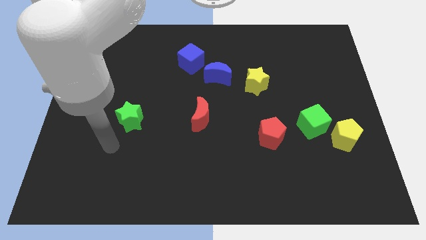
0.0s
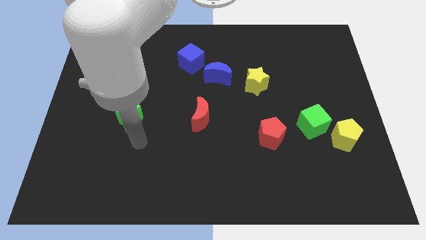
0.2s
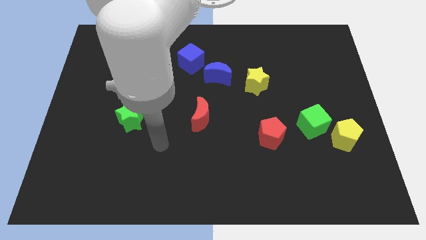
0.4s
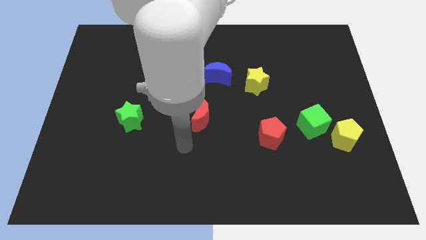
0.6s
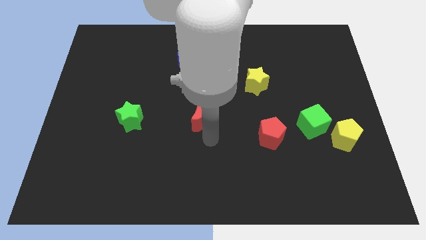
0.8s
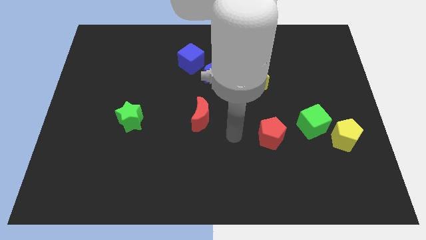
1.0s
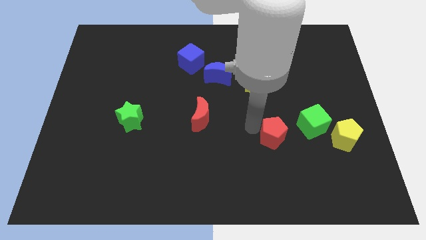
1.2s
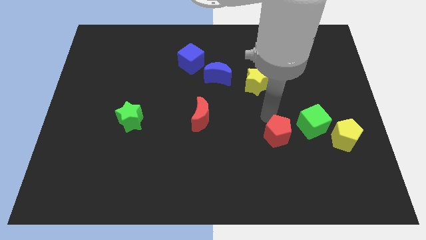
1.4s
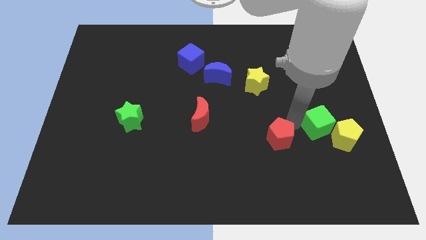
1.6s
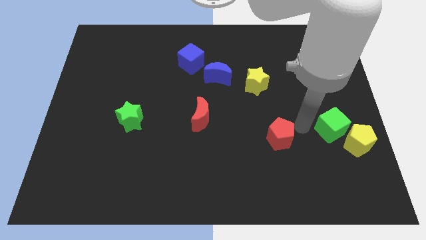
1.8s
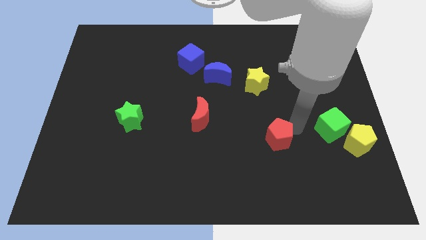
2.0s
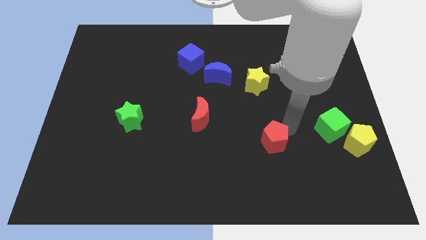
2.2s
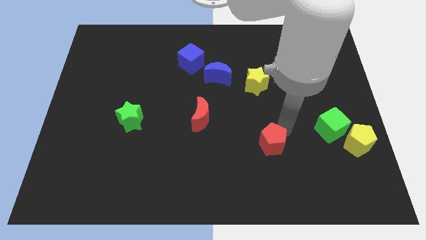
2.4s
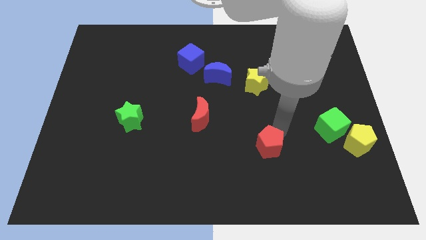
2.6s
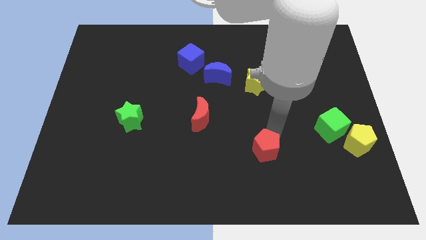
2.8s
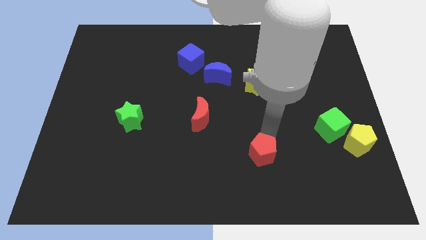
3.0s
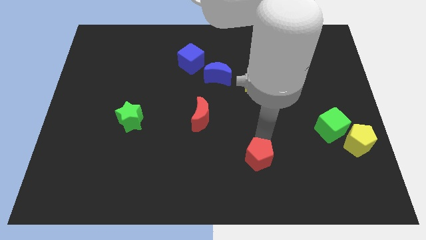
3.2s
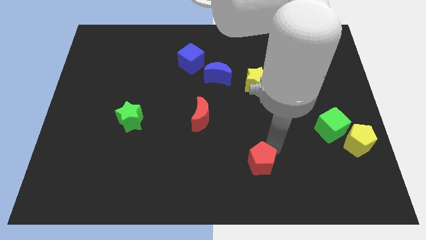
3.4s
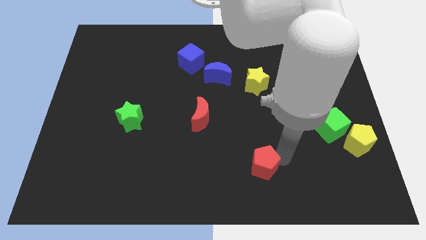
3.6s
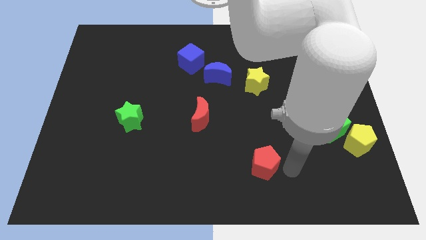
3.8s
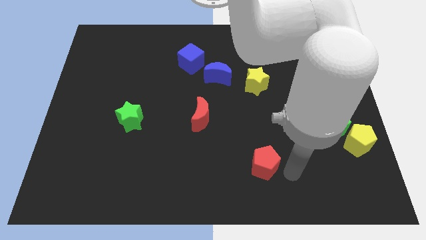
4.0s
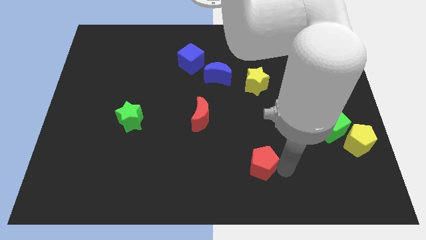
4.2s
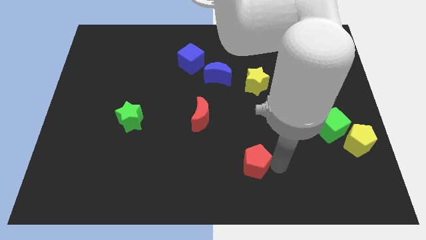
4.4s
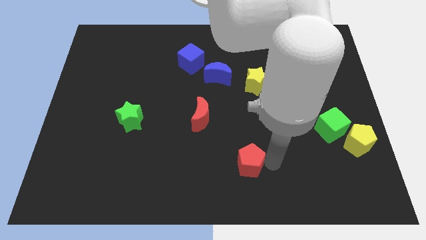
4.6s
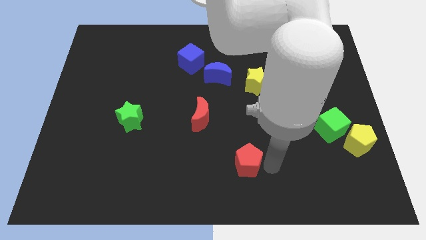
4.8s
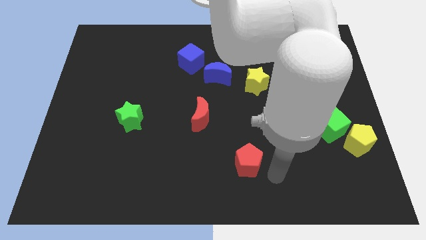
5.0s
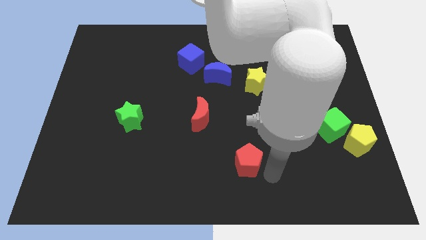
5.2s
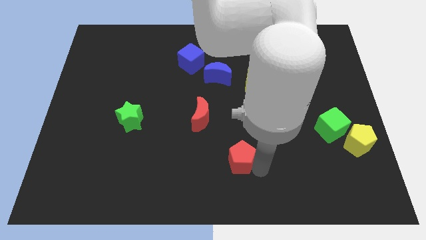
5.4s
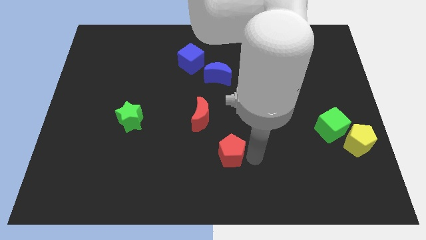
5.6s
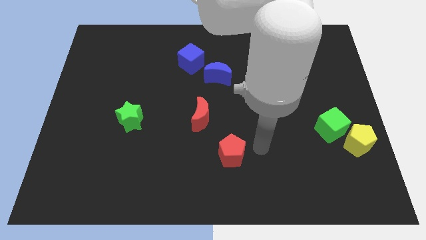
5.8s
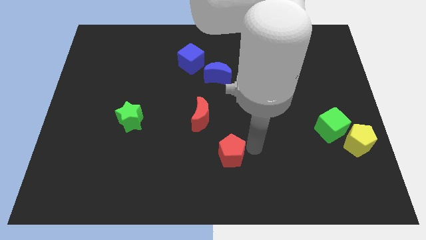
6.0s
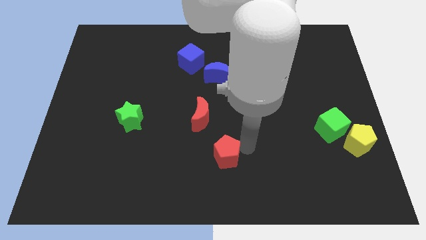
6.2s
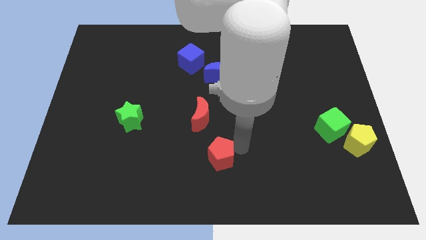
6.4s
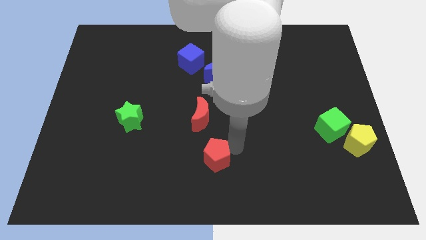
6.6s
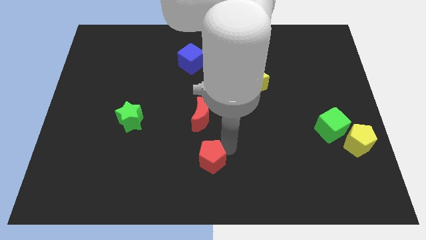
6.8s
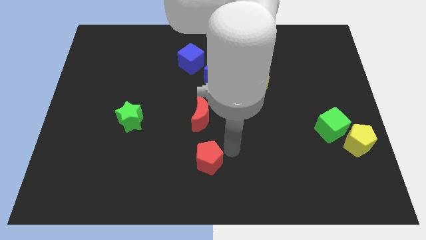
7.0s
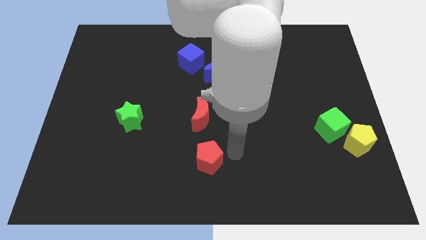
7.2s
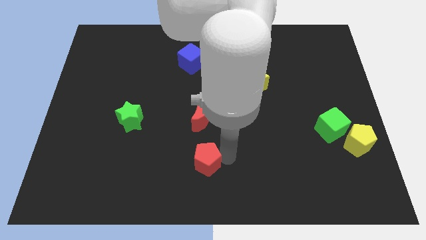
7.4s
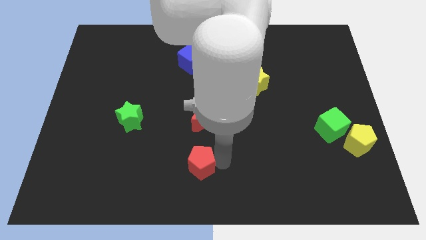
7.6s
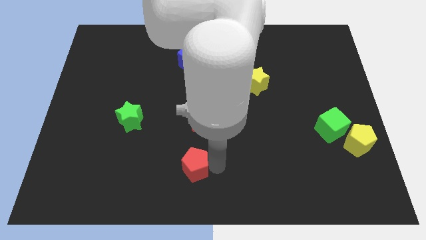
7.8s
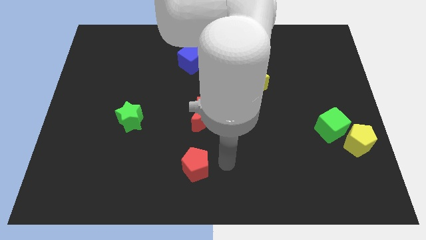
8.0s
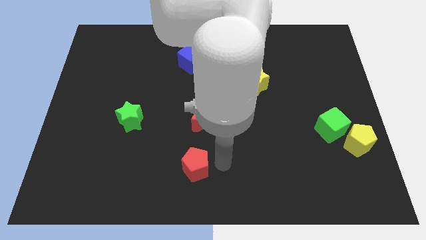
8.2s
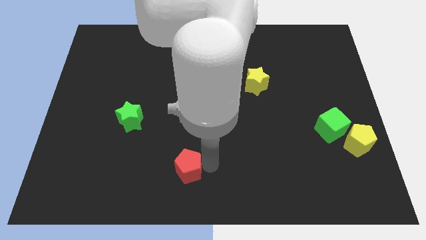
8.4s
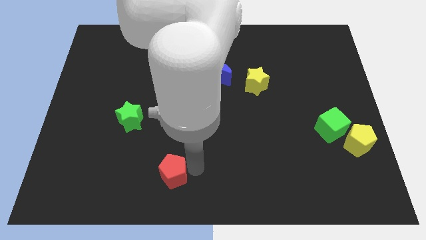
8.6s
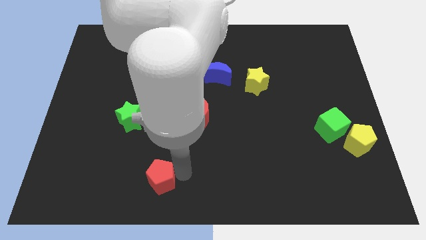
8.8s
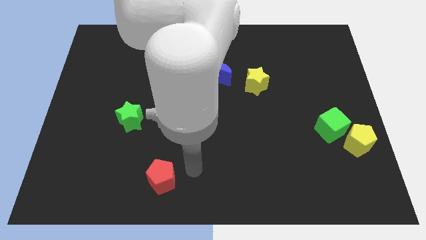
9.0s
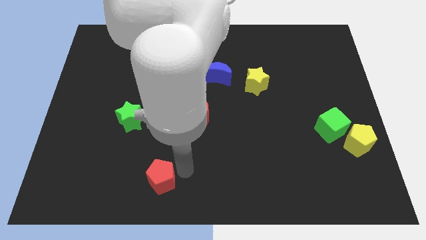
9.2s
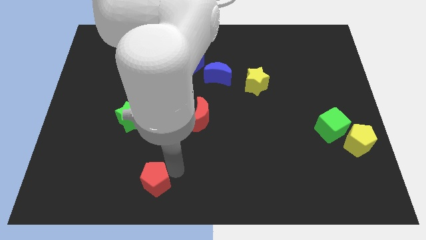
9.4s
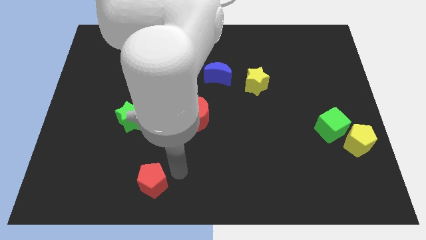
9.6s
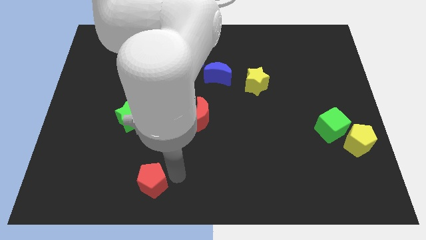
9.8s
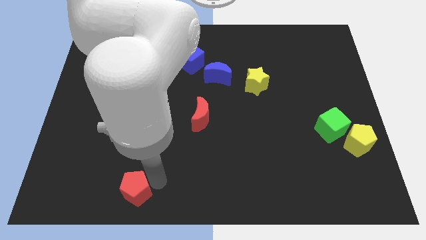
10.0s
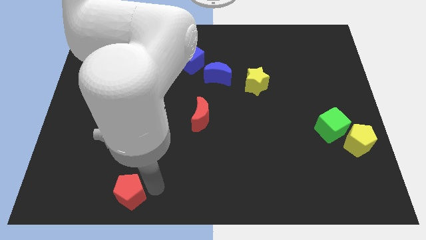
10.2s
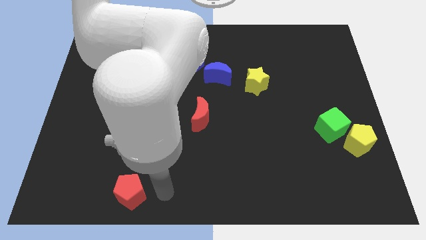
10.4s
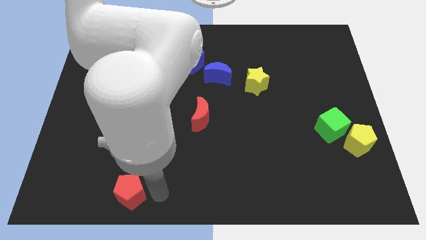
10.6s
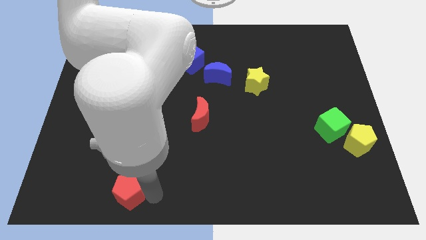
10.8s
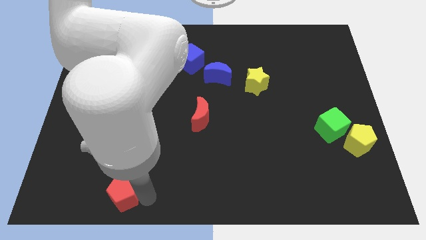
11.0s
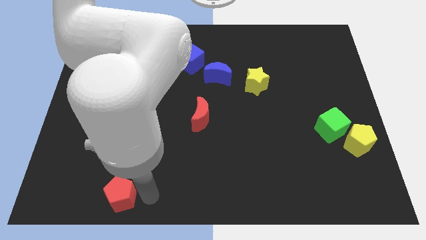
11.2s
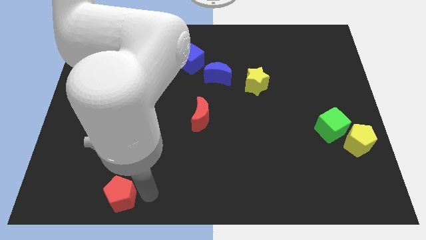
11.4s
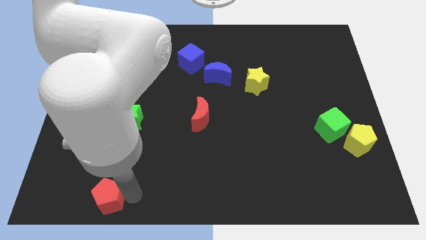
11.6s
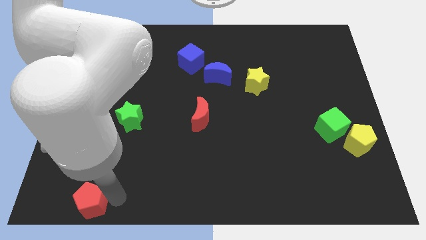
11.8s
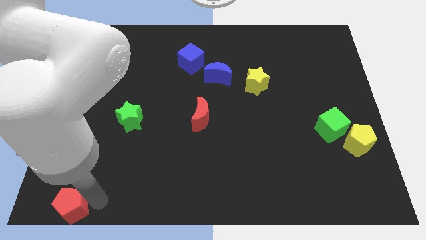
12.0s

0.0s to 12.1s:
slide the red pentagon to the bottom left

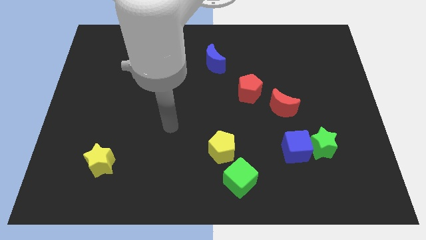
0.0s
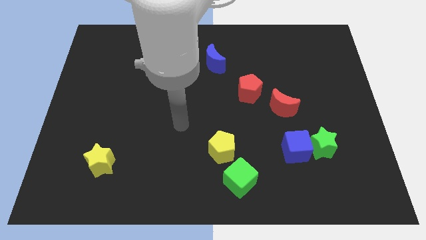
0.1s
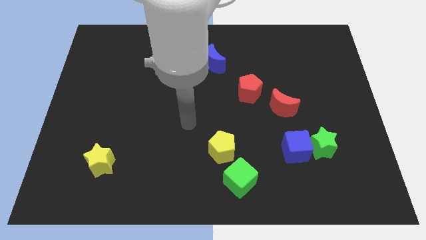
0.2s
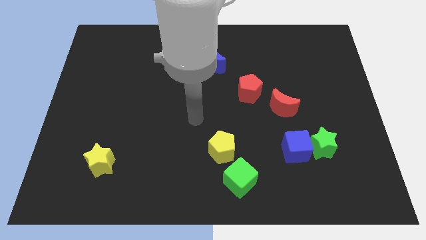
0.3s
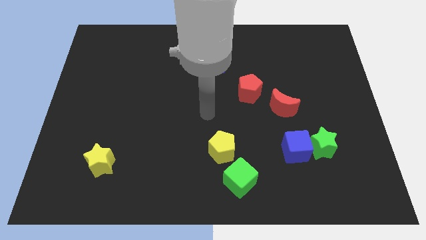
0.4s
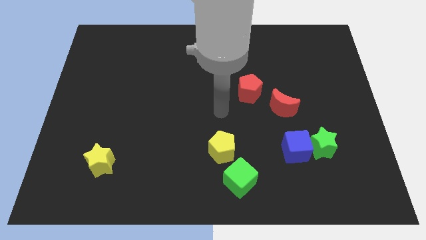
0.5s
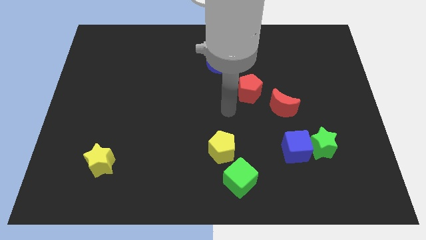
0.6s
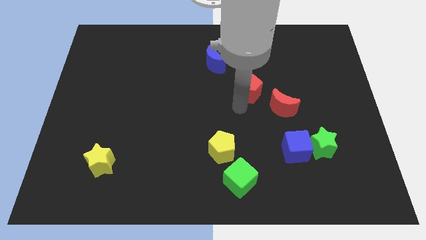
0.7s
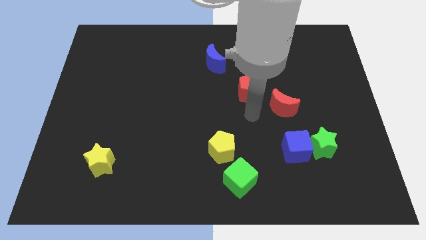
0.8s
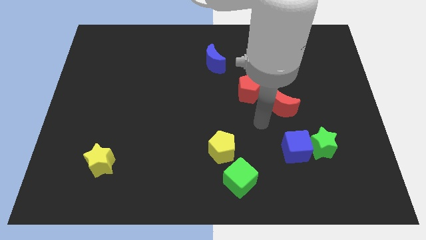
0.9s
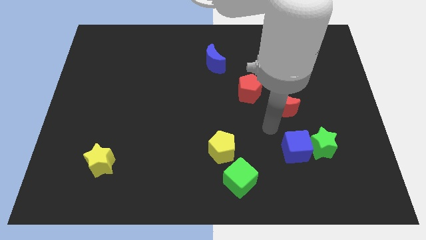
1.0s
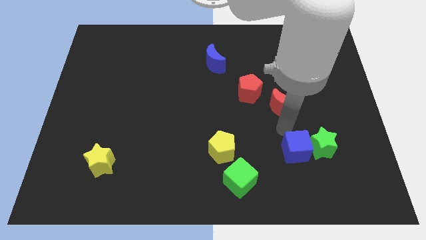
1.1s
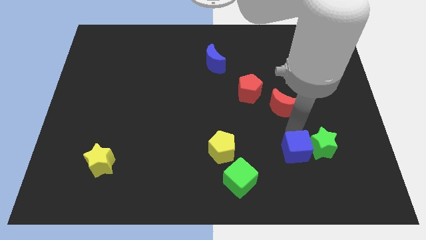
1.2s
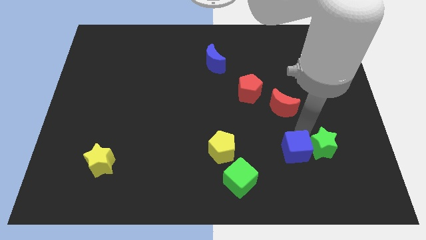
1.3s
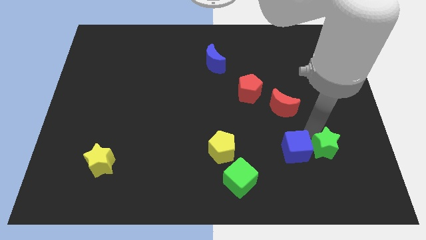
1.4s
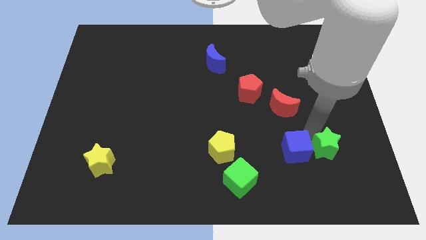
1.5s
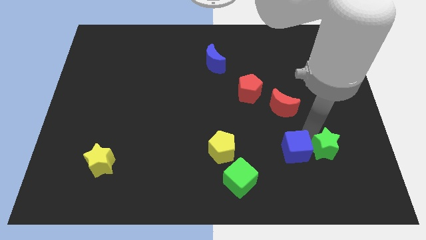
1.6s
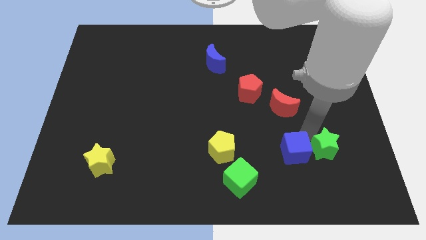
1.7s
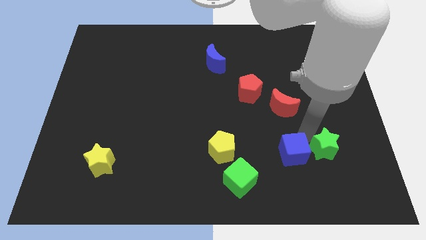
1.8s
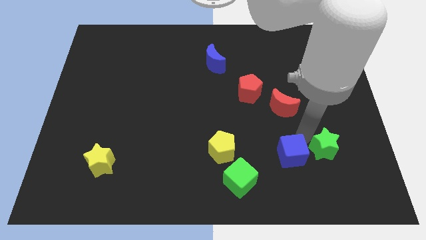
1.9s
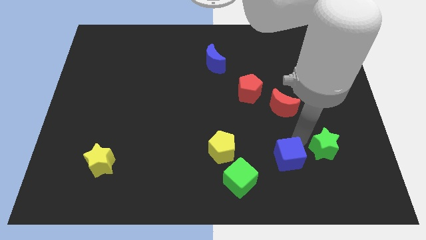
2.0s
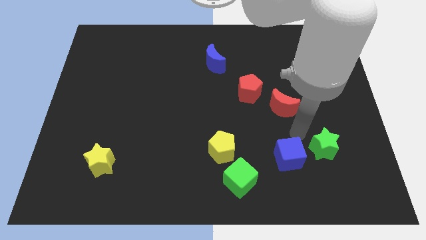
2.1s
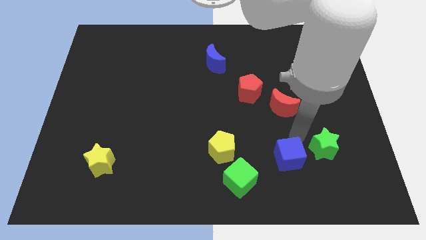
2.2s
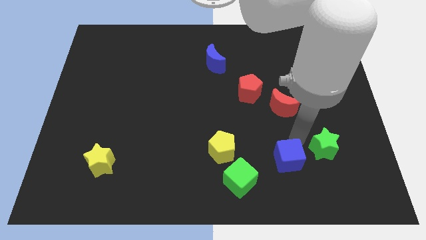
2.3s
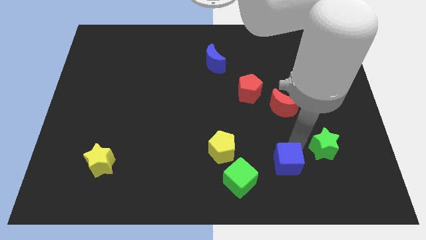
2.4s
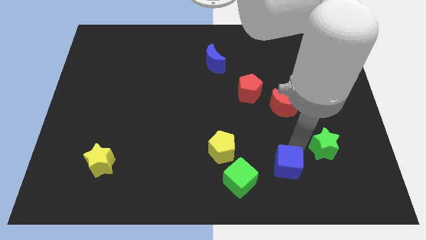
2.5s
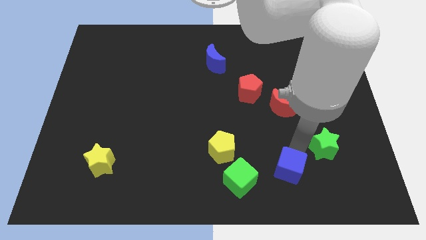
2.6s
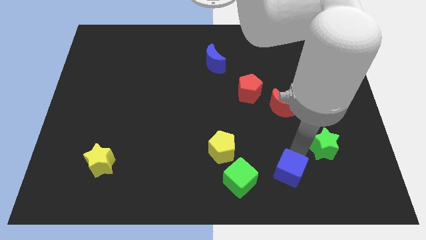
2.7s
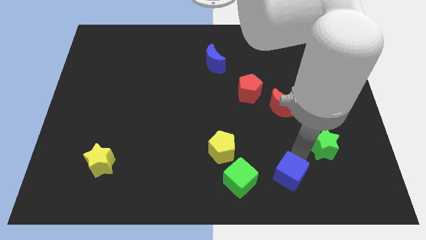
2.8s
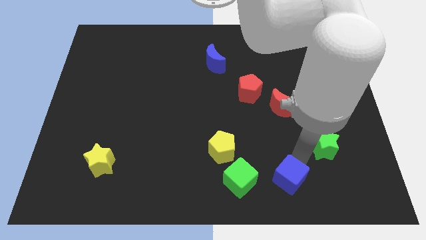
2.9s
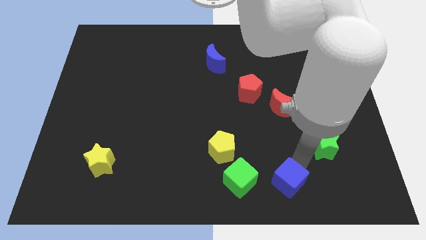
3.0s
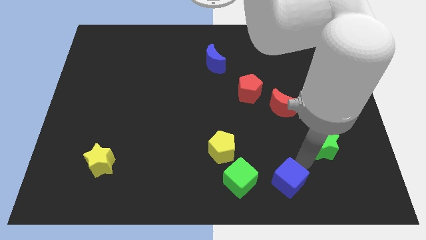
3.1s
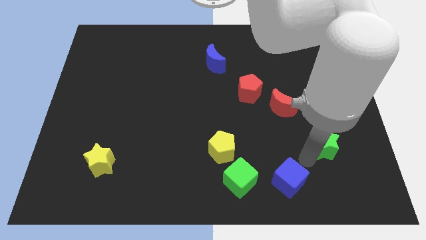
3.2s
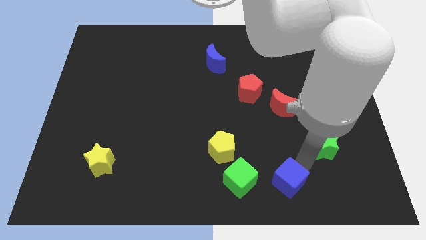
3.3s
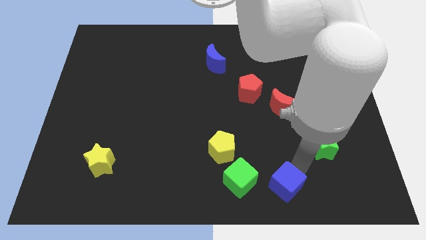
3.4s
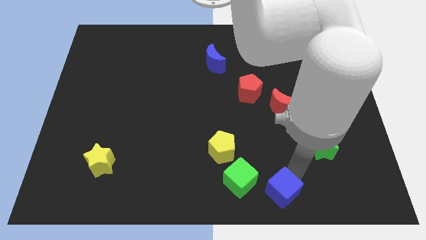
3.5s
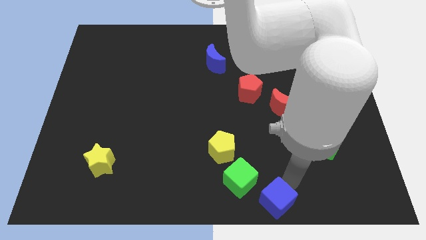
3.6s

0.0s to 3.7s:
push the blue cube to the bottom side
